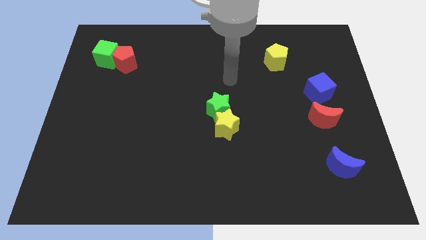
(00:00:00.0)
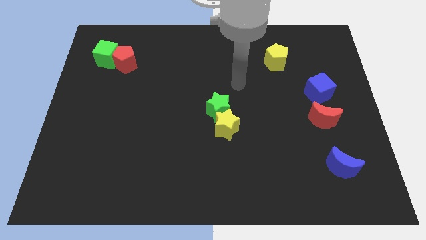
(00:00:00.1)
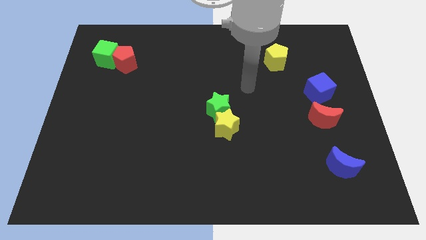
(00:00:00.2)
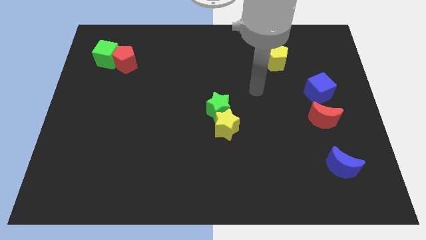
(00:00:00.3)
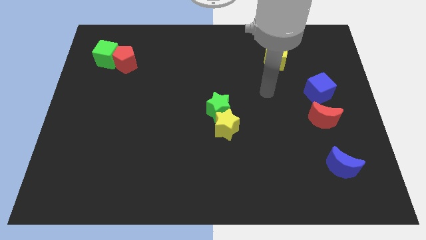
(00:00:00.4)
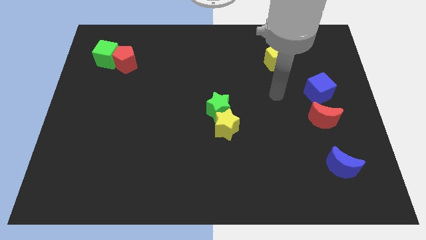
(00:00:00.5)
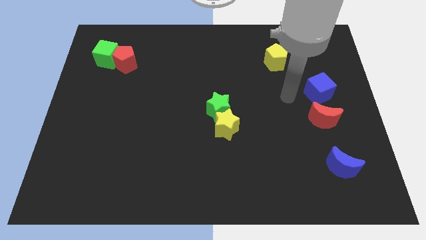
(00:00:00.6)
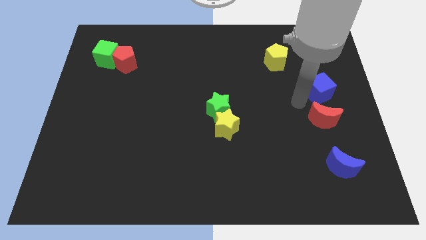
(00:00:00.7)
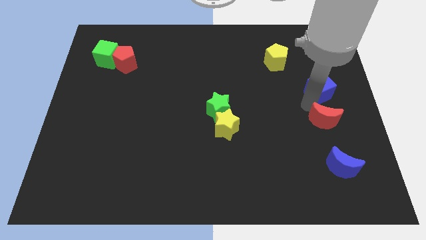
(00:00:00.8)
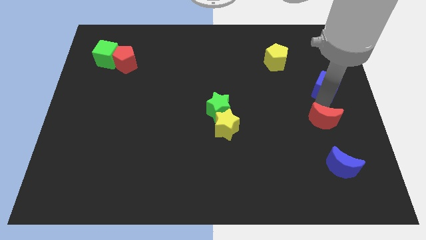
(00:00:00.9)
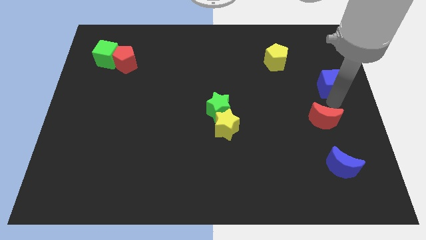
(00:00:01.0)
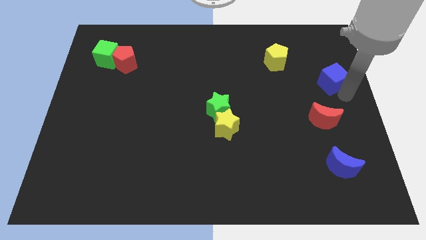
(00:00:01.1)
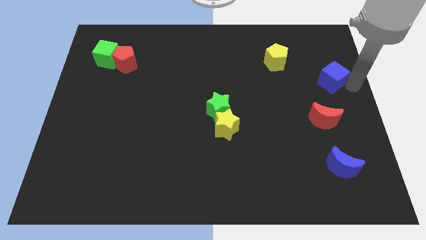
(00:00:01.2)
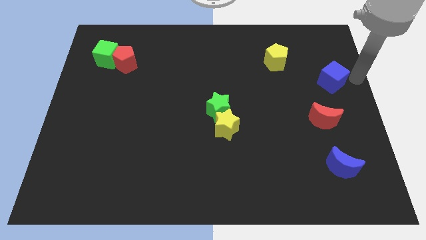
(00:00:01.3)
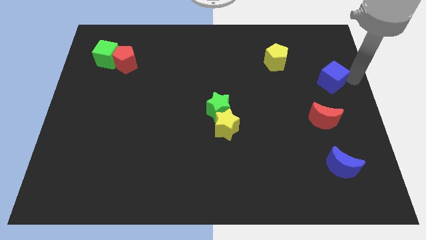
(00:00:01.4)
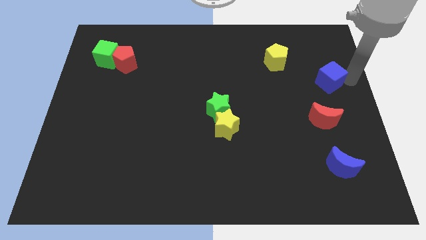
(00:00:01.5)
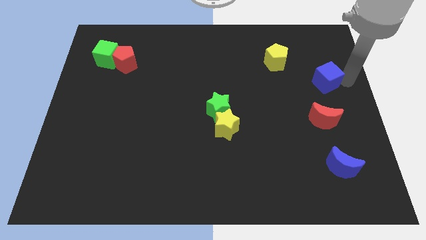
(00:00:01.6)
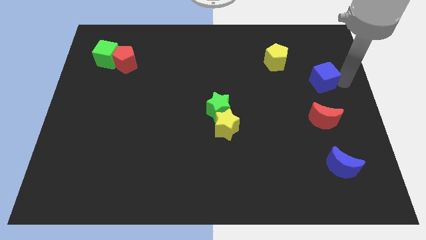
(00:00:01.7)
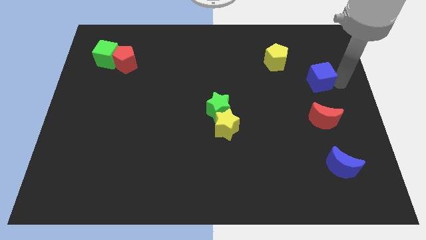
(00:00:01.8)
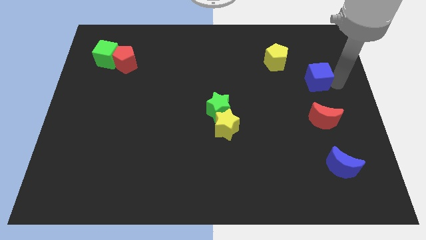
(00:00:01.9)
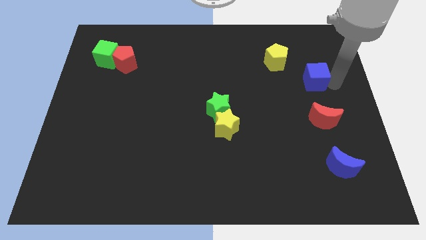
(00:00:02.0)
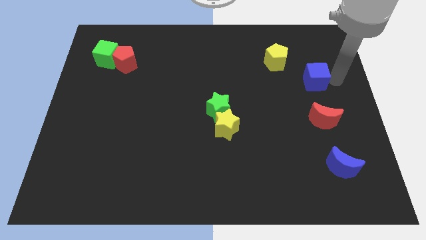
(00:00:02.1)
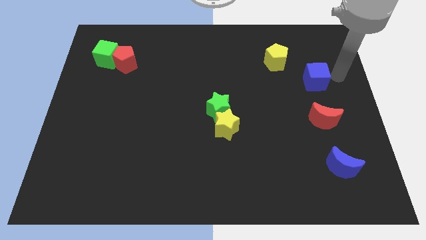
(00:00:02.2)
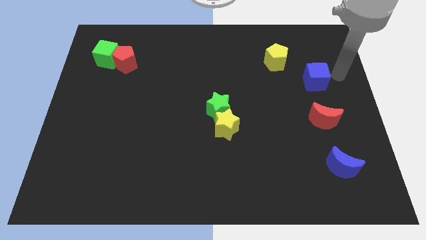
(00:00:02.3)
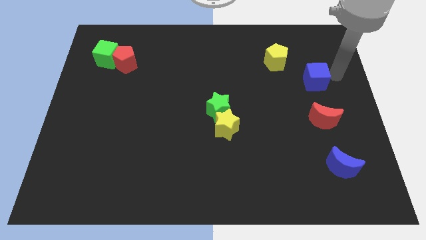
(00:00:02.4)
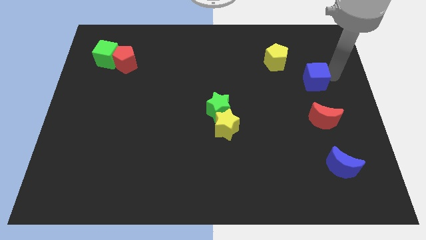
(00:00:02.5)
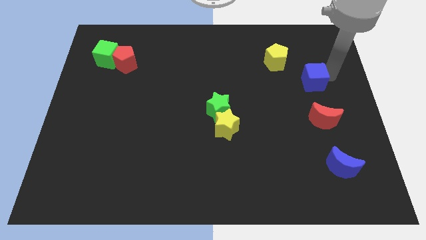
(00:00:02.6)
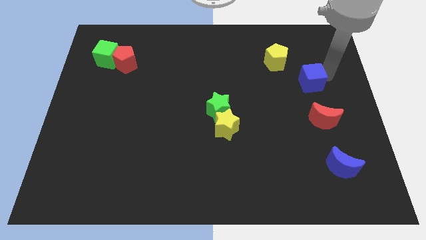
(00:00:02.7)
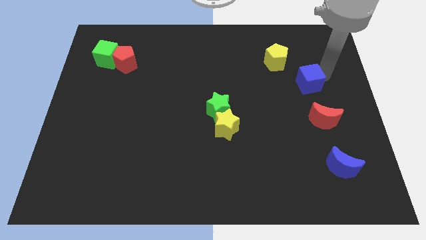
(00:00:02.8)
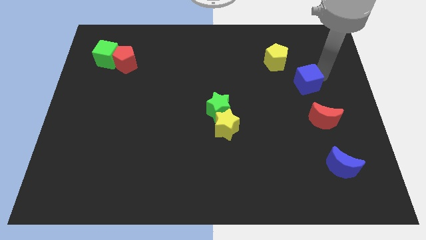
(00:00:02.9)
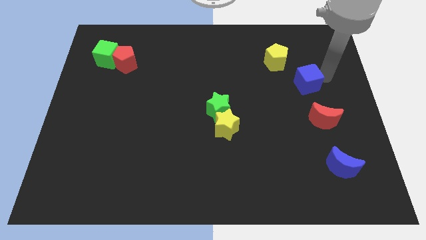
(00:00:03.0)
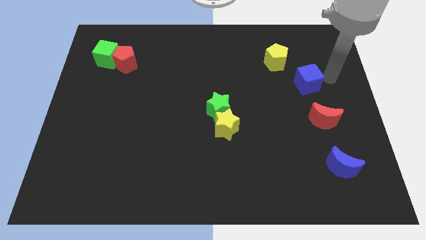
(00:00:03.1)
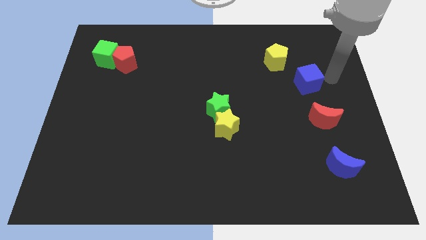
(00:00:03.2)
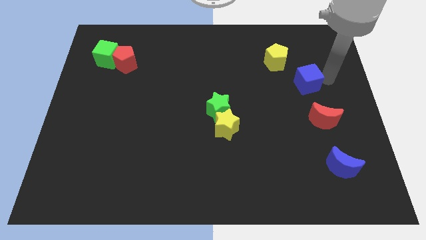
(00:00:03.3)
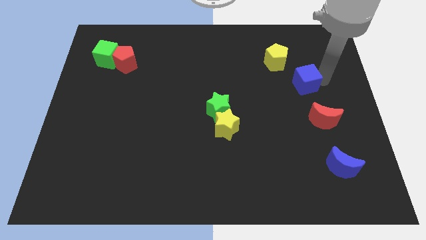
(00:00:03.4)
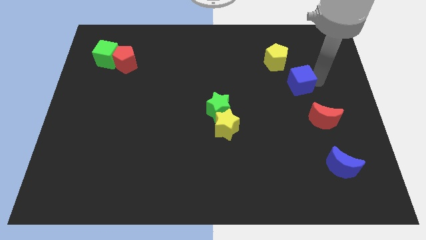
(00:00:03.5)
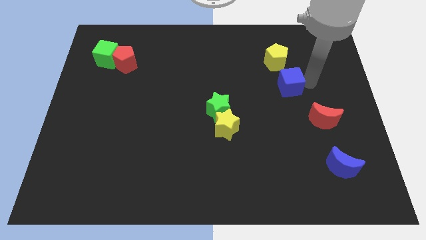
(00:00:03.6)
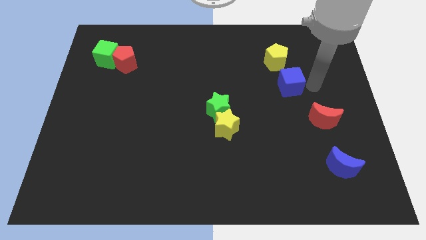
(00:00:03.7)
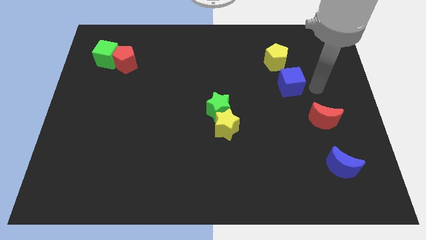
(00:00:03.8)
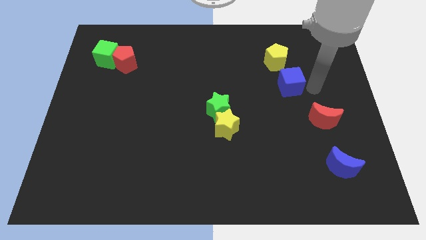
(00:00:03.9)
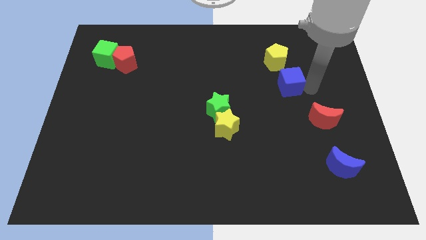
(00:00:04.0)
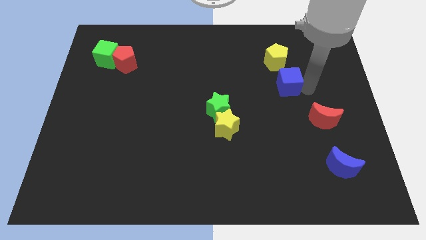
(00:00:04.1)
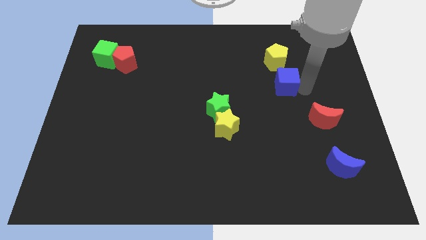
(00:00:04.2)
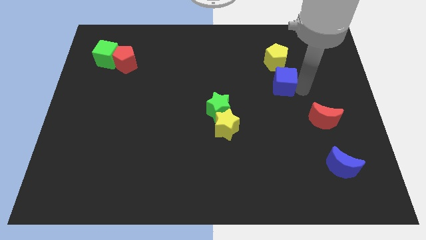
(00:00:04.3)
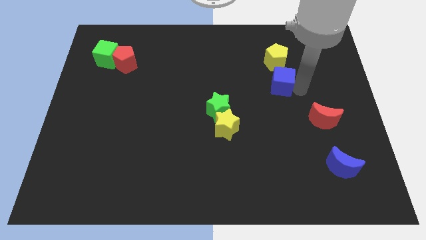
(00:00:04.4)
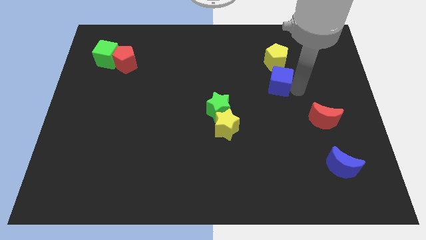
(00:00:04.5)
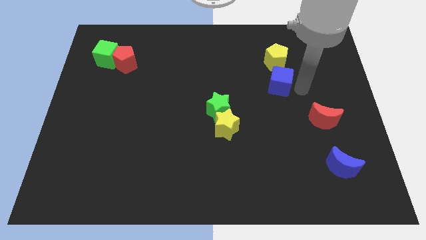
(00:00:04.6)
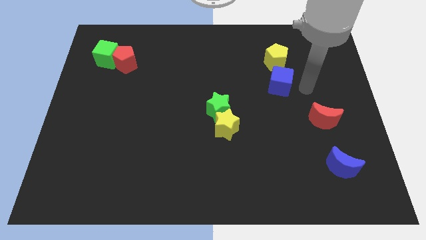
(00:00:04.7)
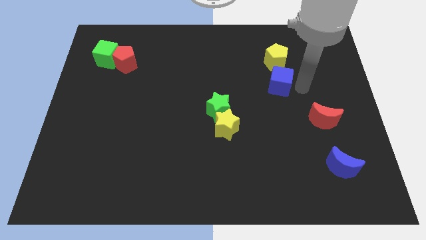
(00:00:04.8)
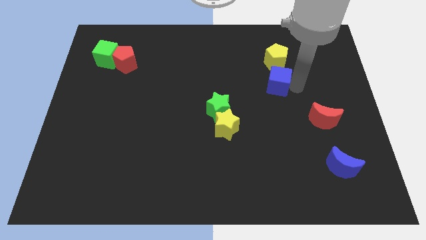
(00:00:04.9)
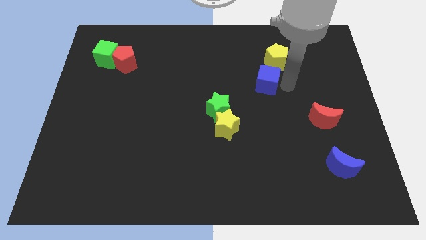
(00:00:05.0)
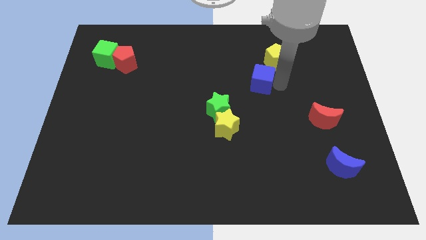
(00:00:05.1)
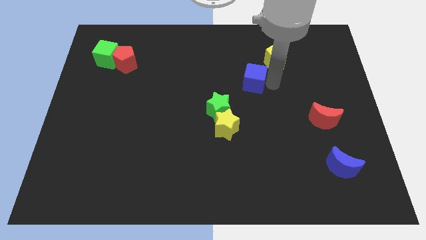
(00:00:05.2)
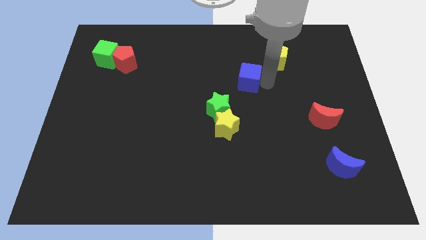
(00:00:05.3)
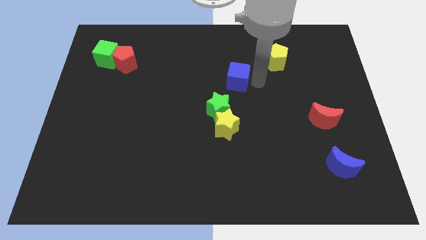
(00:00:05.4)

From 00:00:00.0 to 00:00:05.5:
slide the blue cube above the green star

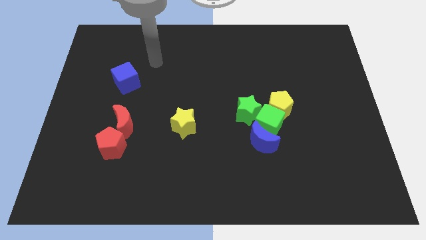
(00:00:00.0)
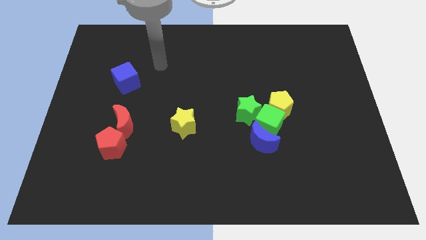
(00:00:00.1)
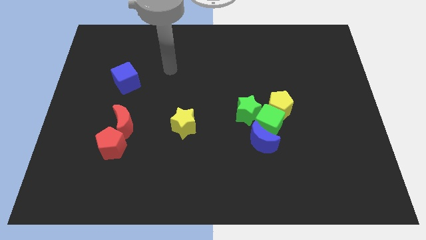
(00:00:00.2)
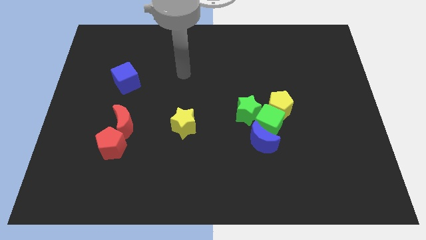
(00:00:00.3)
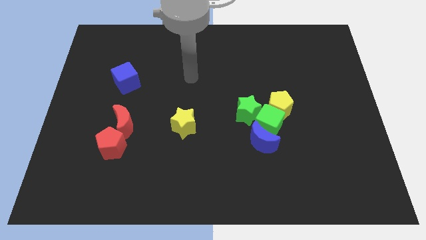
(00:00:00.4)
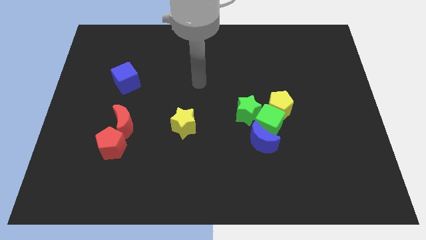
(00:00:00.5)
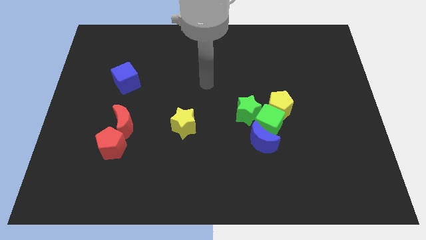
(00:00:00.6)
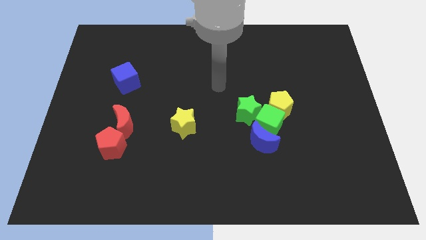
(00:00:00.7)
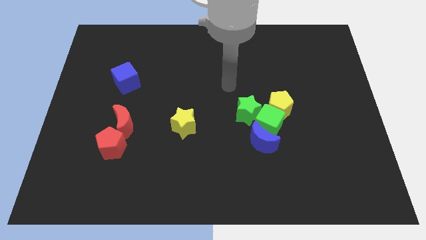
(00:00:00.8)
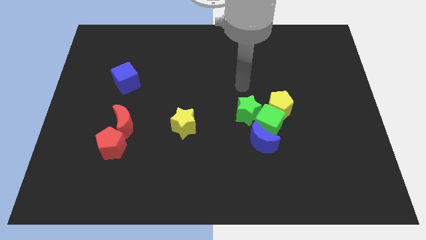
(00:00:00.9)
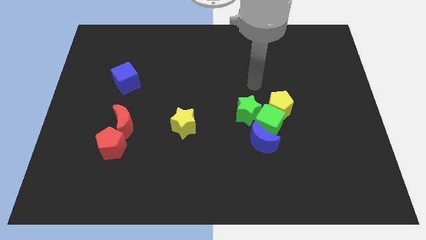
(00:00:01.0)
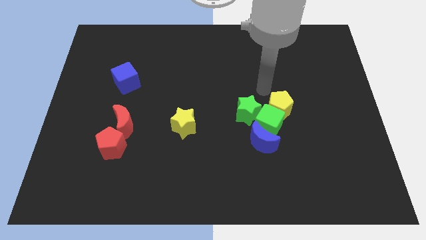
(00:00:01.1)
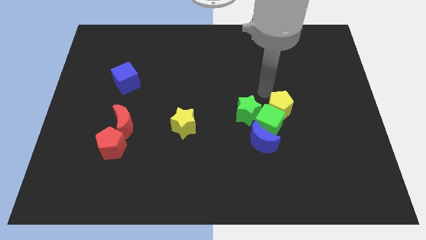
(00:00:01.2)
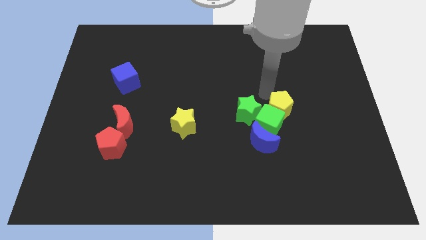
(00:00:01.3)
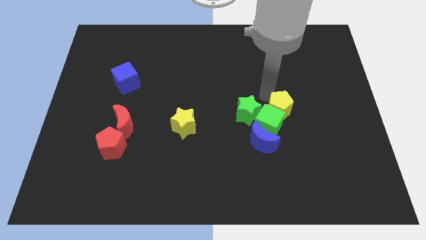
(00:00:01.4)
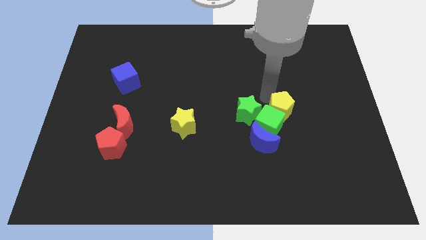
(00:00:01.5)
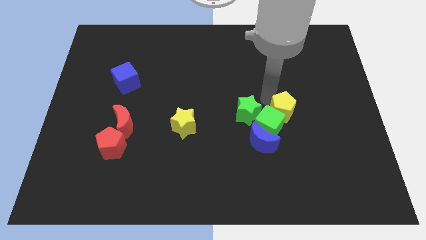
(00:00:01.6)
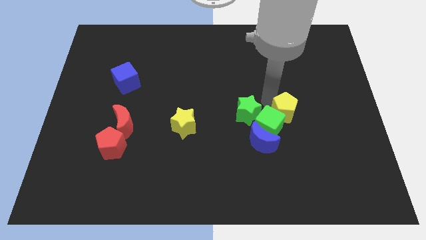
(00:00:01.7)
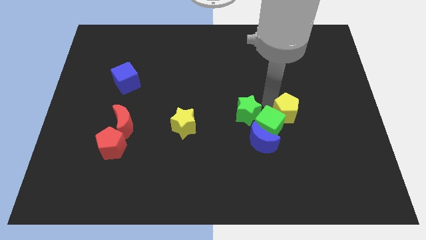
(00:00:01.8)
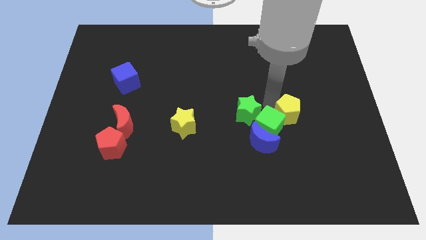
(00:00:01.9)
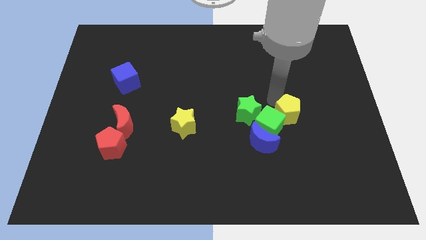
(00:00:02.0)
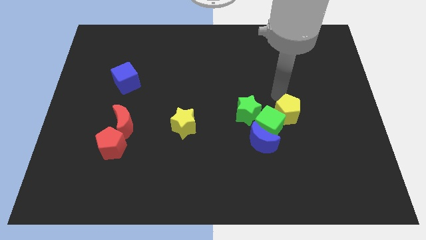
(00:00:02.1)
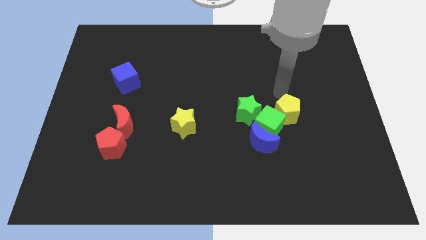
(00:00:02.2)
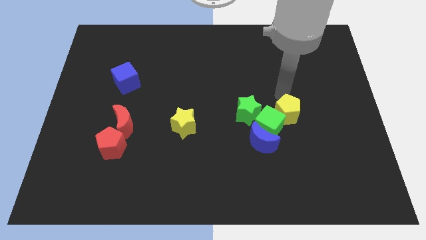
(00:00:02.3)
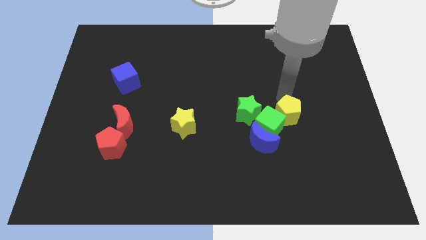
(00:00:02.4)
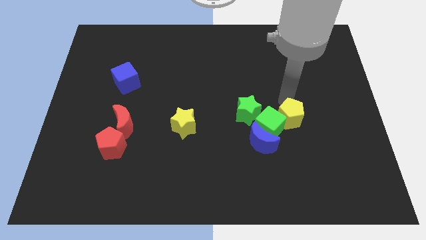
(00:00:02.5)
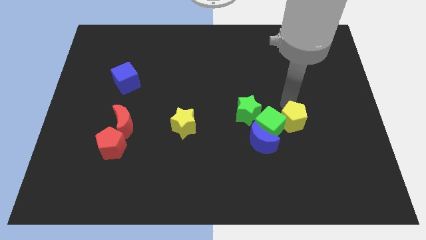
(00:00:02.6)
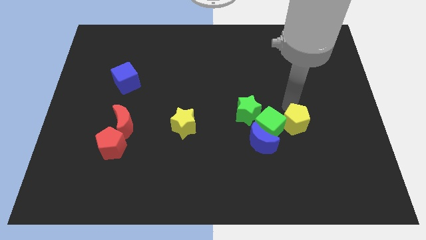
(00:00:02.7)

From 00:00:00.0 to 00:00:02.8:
slide the yellow pentagon to the bottom right of the green cube
